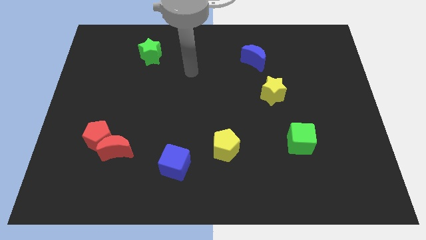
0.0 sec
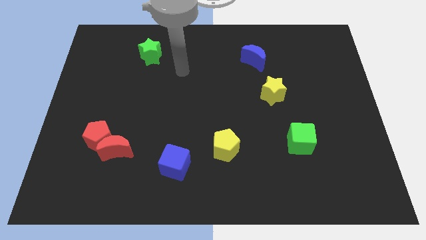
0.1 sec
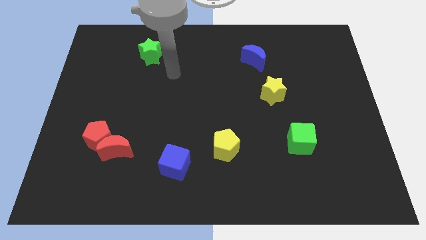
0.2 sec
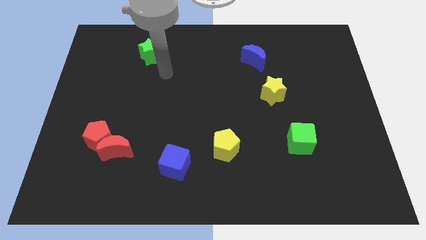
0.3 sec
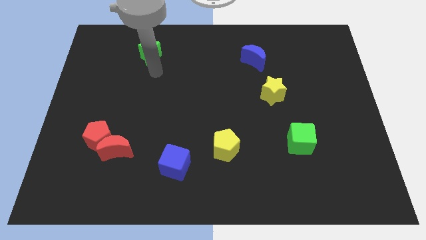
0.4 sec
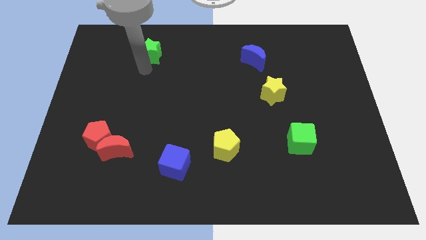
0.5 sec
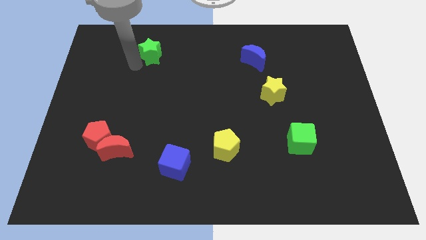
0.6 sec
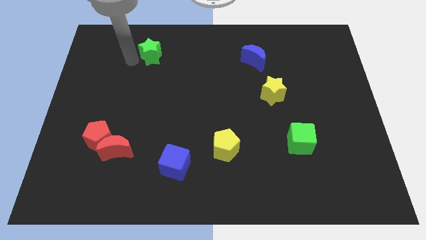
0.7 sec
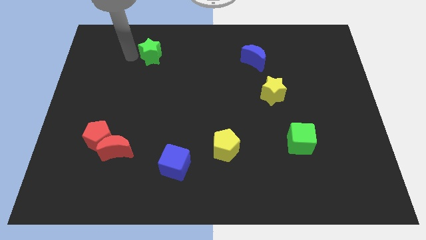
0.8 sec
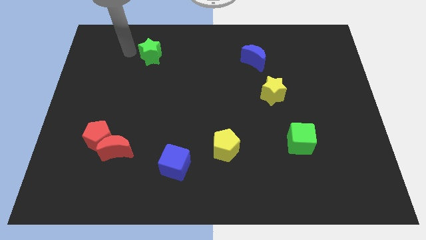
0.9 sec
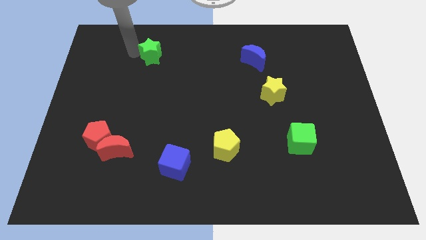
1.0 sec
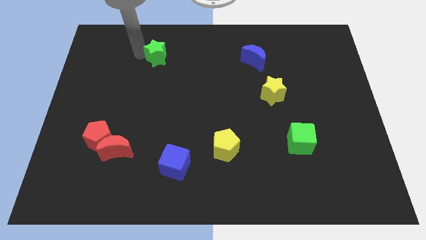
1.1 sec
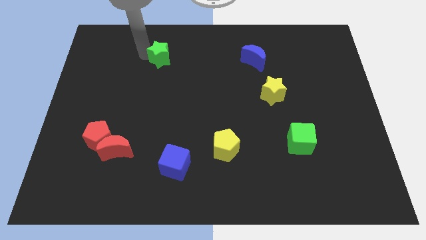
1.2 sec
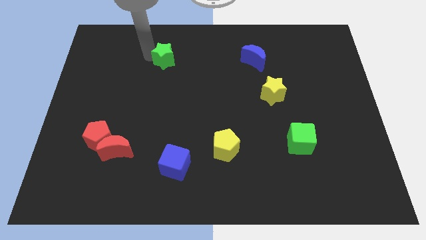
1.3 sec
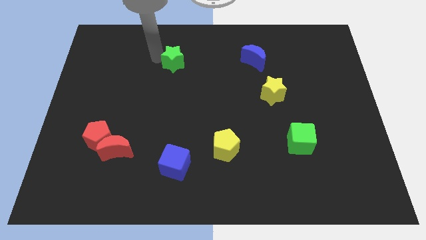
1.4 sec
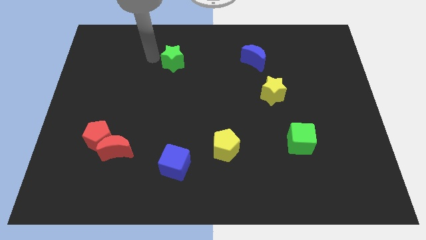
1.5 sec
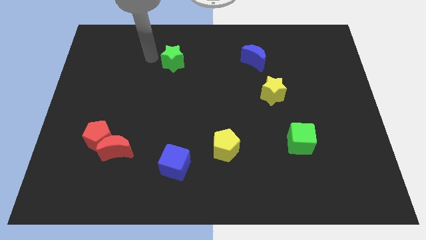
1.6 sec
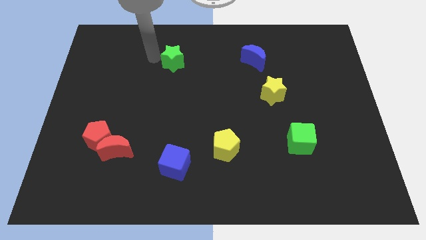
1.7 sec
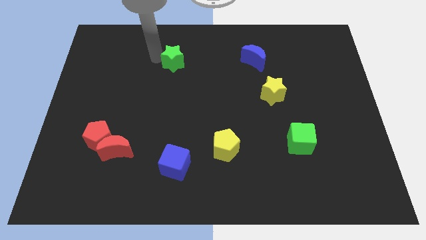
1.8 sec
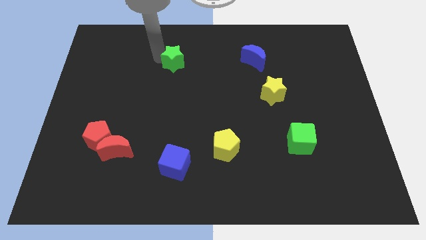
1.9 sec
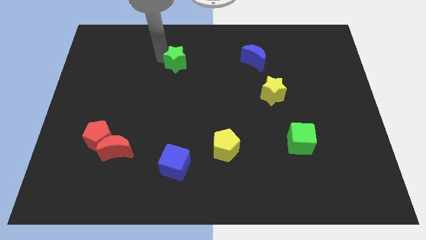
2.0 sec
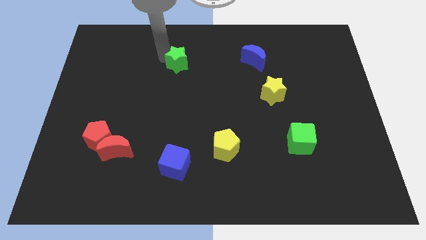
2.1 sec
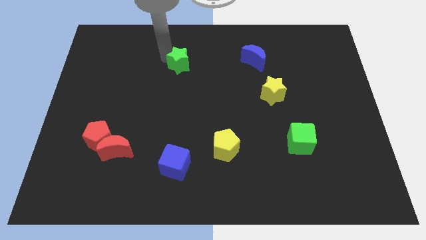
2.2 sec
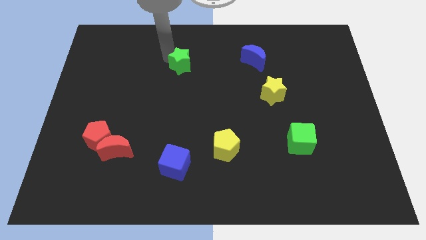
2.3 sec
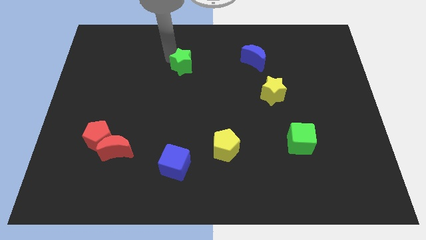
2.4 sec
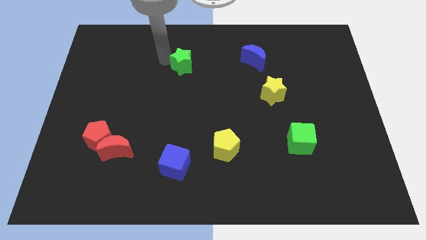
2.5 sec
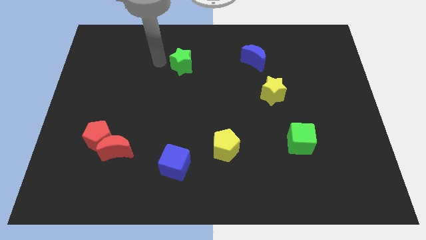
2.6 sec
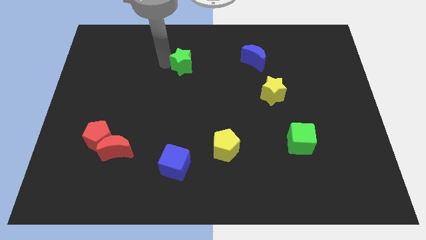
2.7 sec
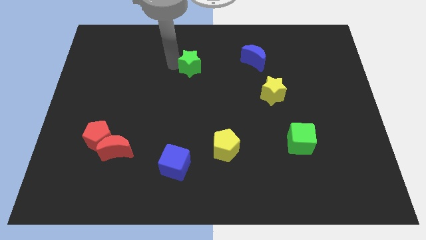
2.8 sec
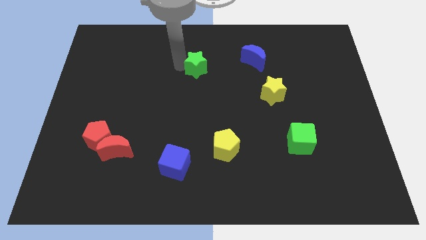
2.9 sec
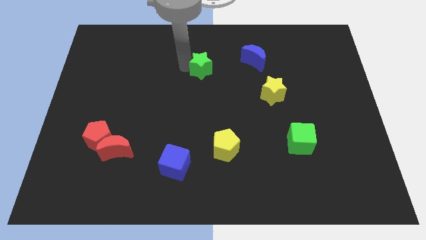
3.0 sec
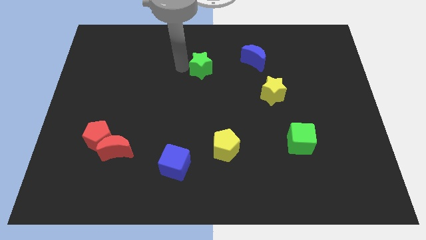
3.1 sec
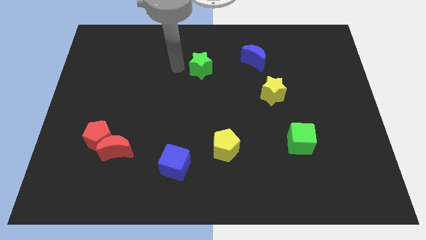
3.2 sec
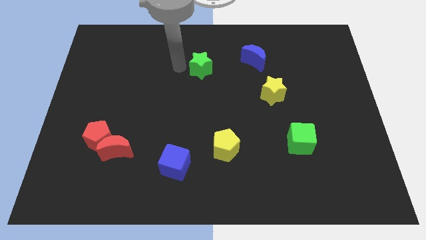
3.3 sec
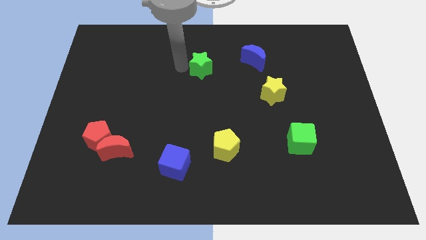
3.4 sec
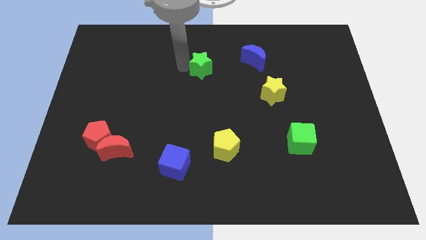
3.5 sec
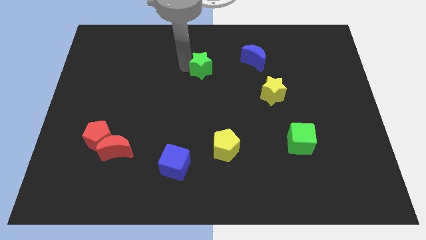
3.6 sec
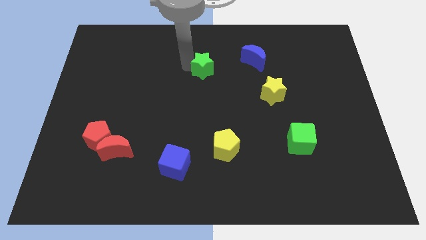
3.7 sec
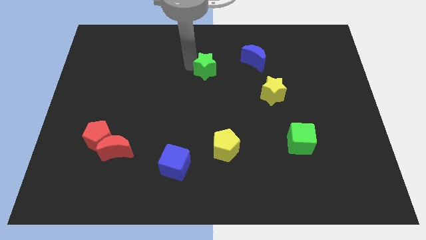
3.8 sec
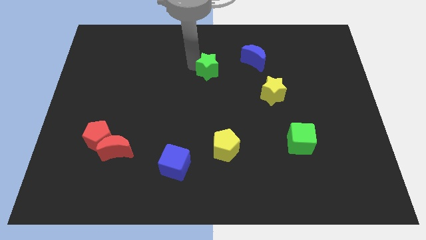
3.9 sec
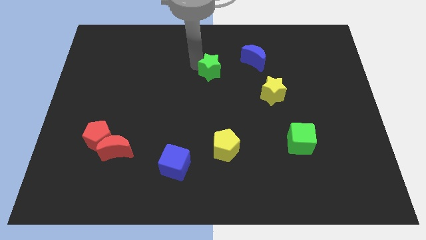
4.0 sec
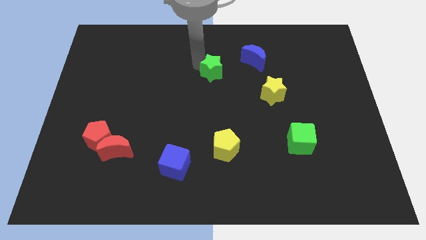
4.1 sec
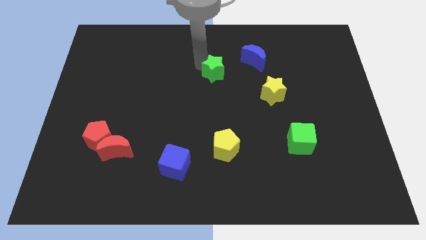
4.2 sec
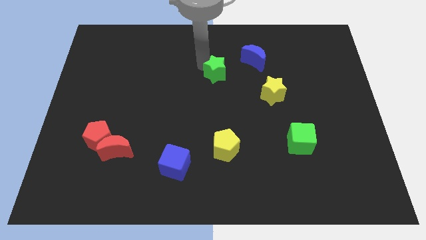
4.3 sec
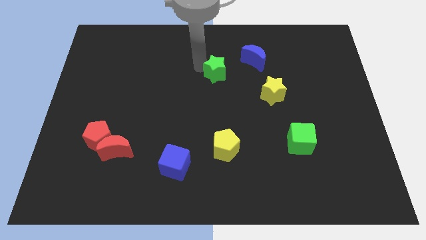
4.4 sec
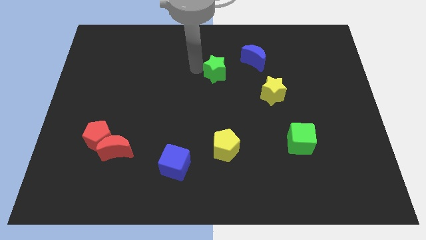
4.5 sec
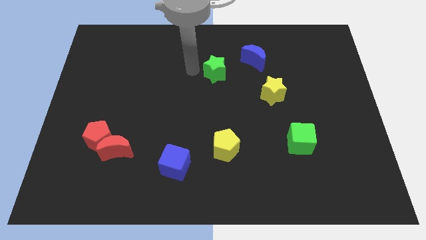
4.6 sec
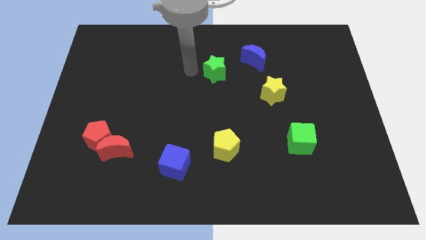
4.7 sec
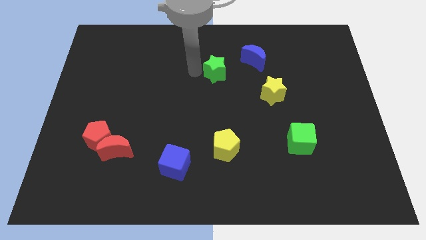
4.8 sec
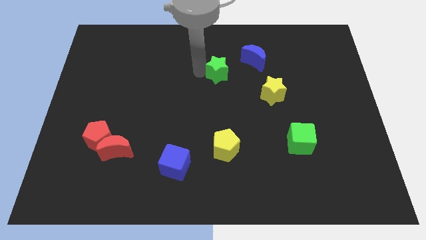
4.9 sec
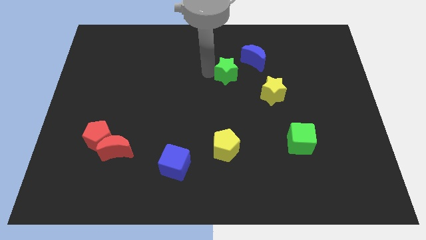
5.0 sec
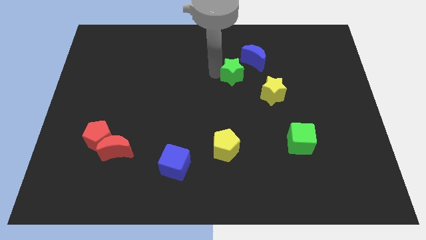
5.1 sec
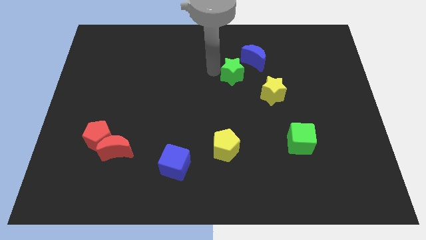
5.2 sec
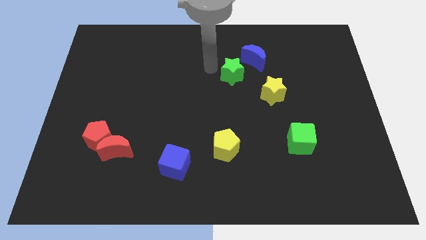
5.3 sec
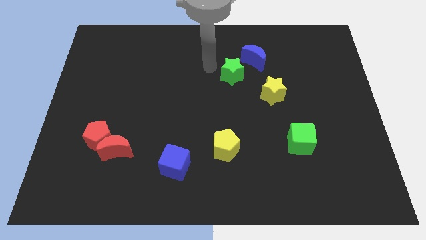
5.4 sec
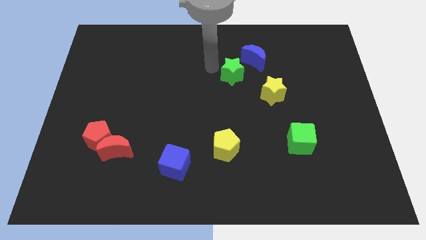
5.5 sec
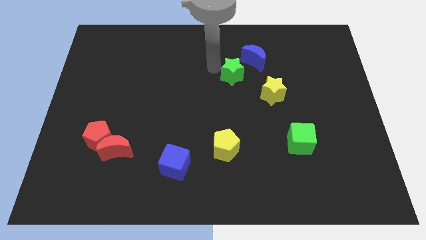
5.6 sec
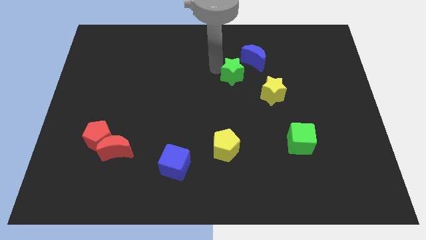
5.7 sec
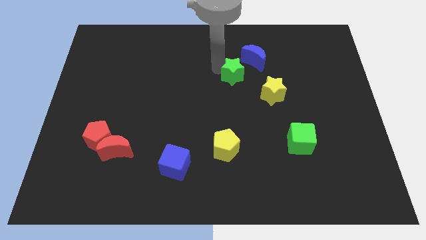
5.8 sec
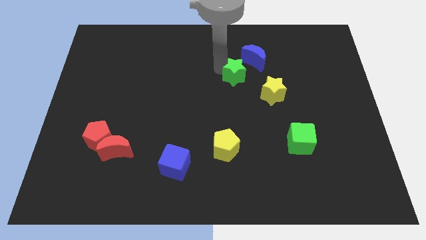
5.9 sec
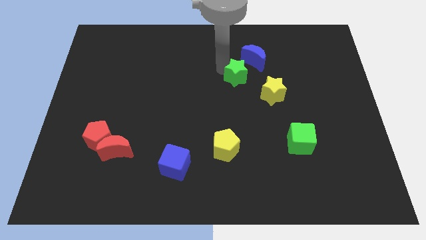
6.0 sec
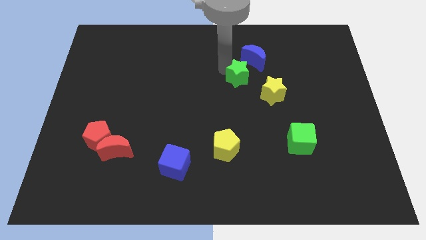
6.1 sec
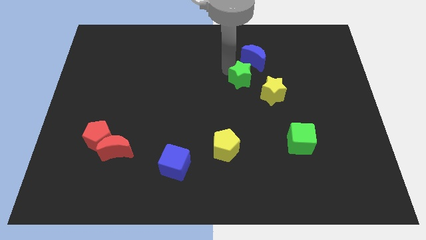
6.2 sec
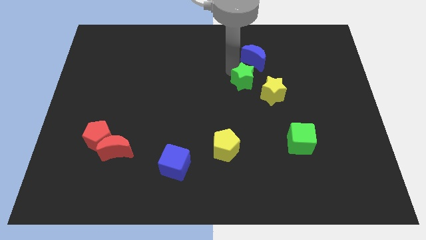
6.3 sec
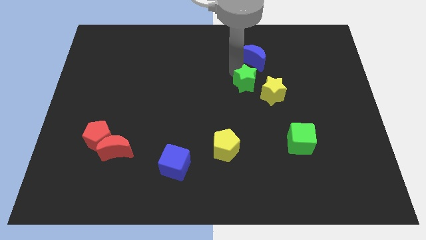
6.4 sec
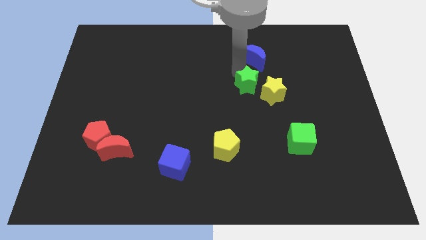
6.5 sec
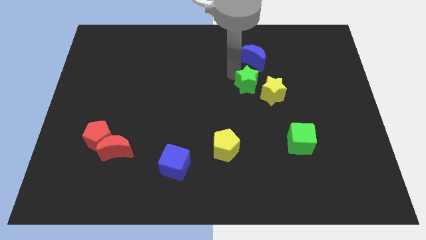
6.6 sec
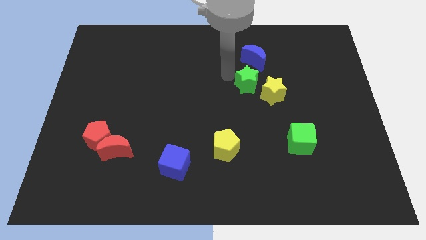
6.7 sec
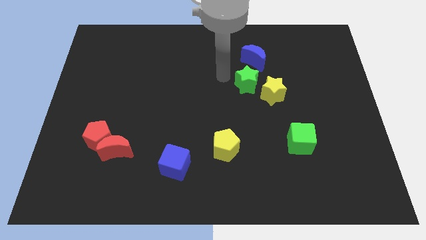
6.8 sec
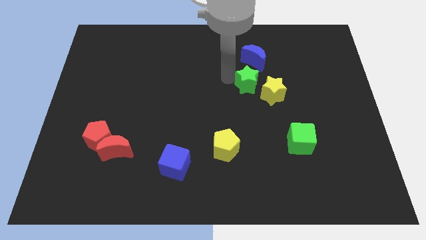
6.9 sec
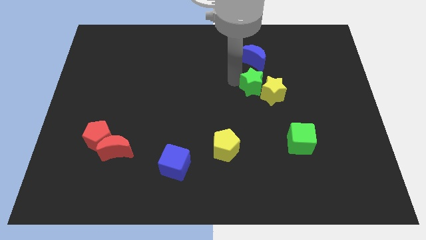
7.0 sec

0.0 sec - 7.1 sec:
push the green star close to the yellow star
